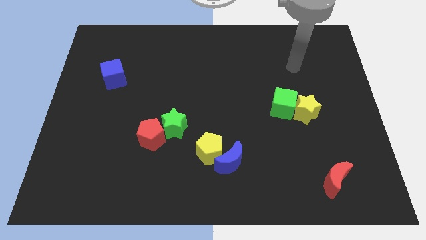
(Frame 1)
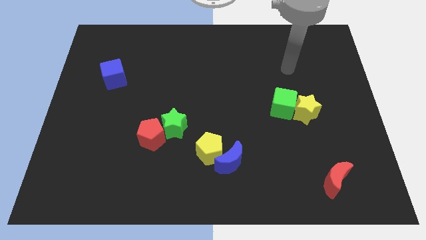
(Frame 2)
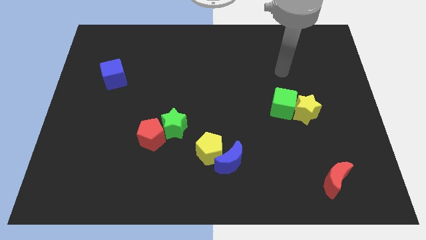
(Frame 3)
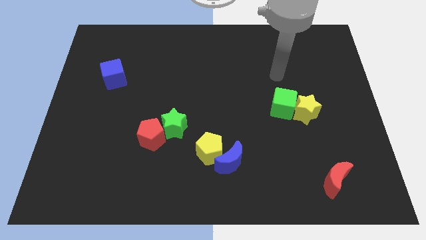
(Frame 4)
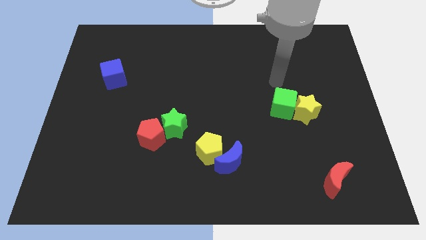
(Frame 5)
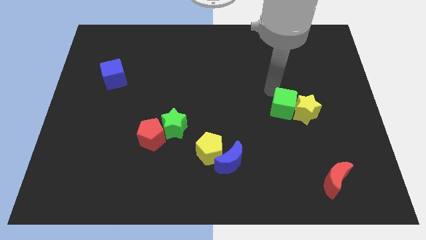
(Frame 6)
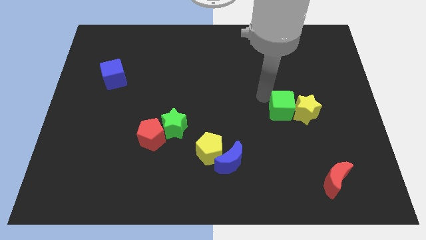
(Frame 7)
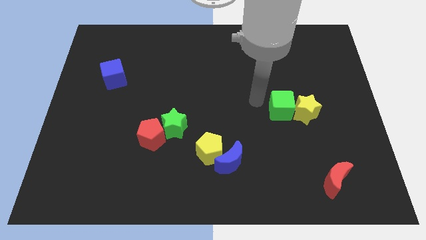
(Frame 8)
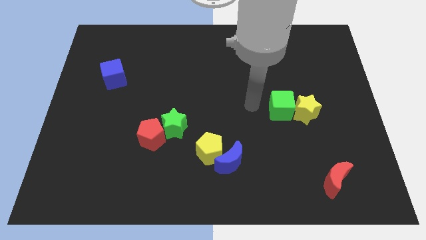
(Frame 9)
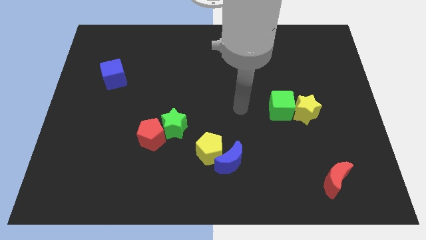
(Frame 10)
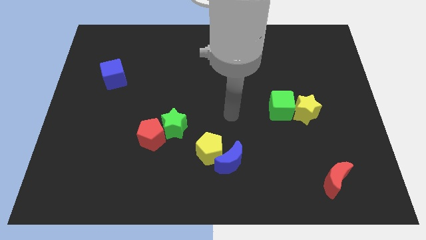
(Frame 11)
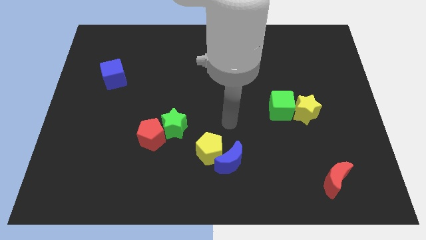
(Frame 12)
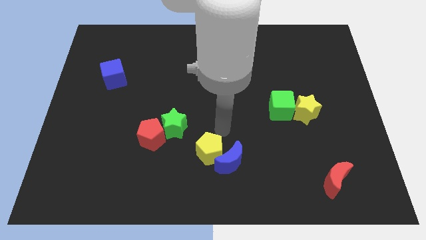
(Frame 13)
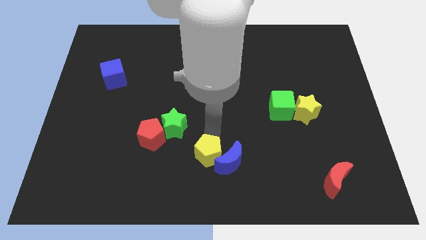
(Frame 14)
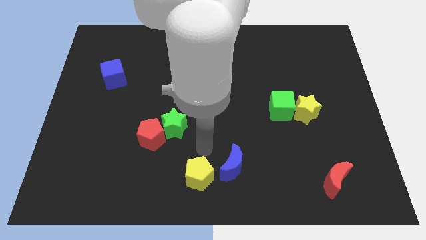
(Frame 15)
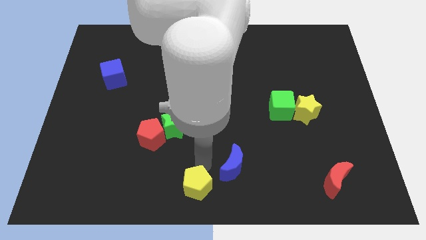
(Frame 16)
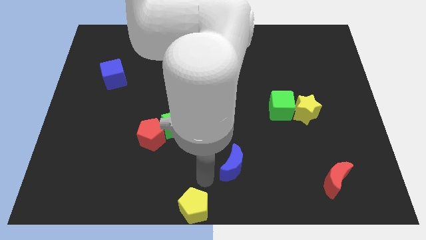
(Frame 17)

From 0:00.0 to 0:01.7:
separate the blue moon from the yellow pentagon

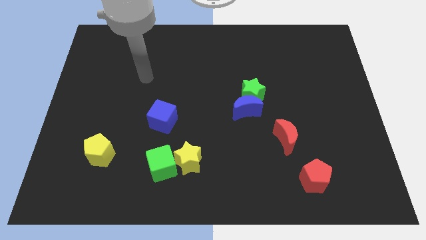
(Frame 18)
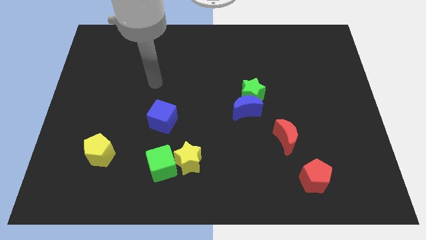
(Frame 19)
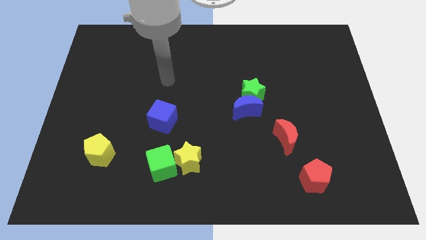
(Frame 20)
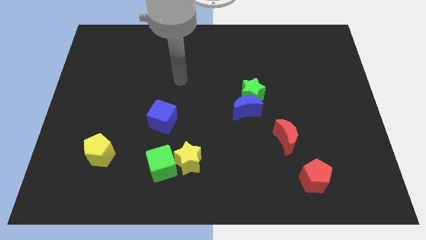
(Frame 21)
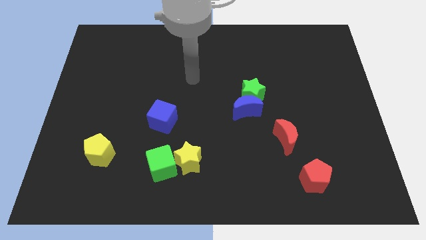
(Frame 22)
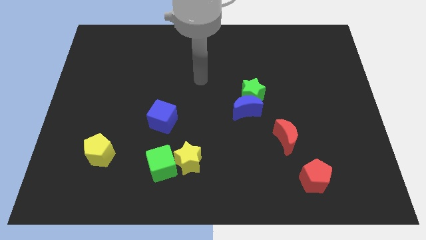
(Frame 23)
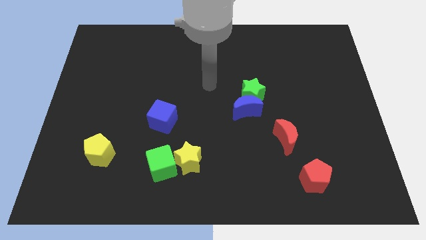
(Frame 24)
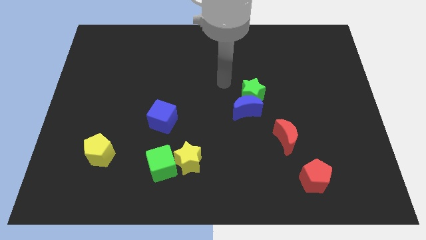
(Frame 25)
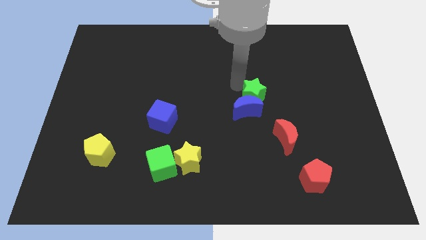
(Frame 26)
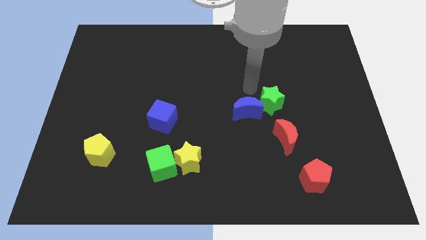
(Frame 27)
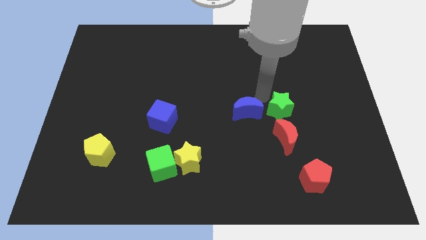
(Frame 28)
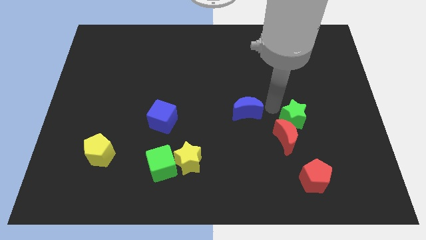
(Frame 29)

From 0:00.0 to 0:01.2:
move the blue moon away from the green star

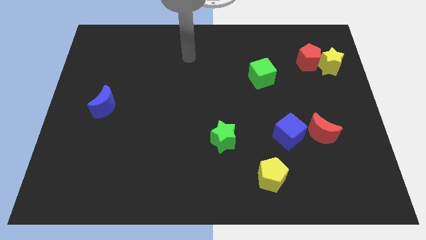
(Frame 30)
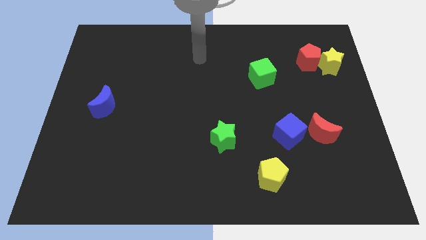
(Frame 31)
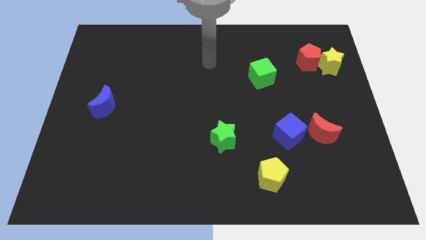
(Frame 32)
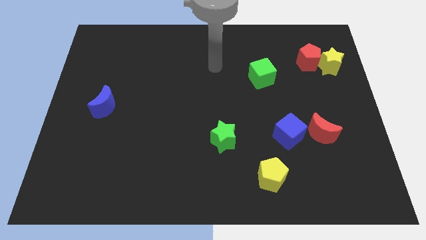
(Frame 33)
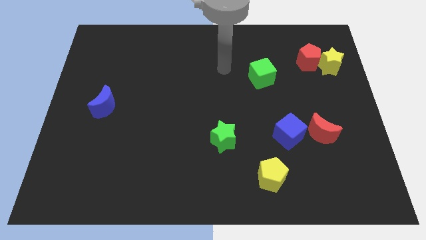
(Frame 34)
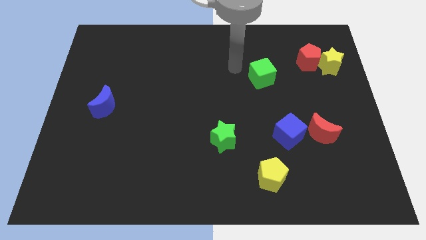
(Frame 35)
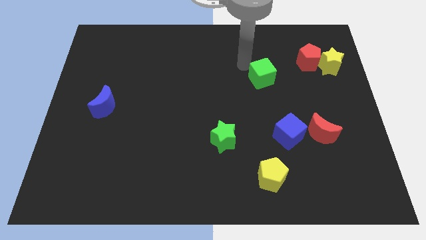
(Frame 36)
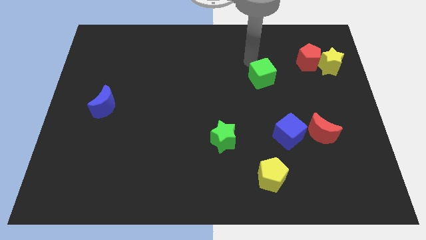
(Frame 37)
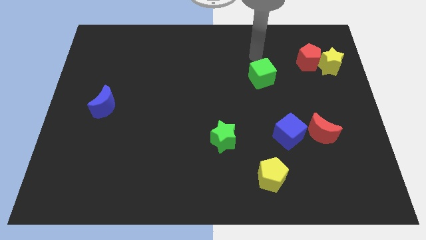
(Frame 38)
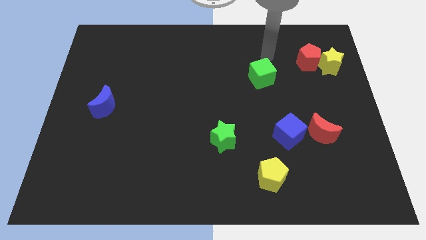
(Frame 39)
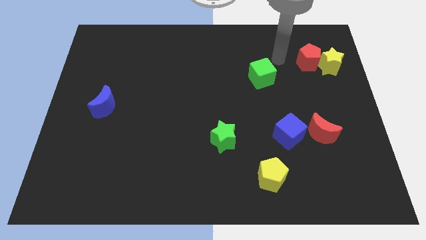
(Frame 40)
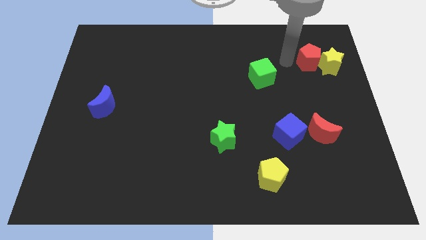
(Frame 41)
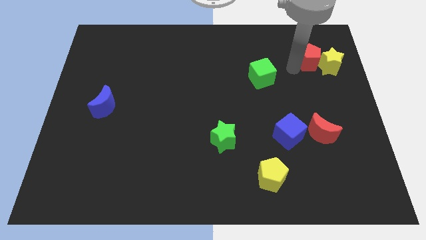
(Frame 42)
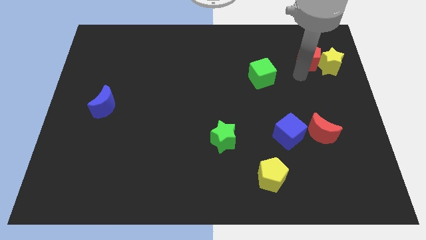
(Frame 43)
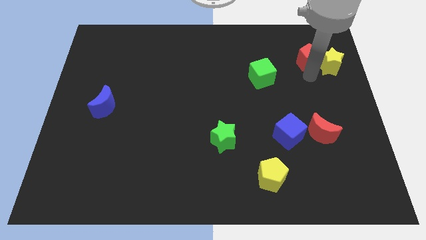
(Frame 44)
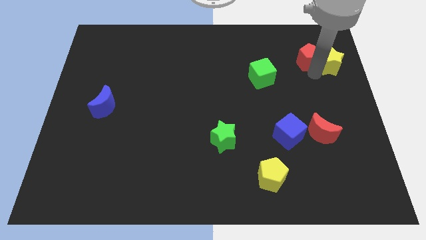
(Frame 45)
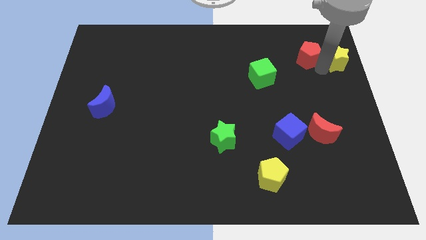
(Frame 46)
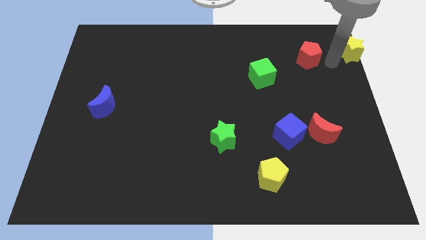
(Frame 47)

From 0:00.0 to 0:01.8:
move the red pentagon away from the yellow star

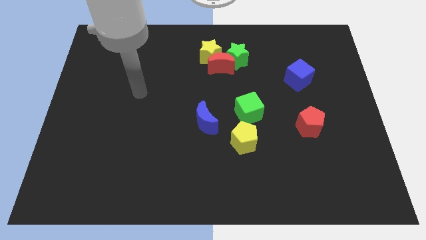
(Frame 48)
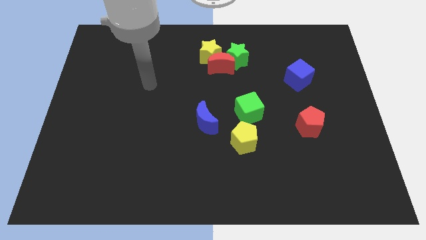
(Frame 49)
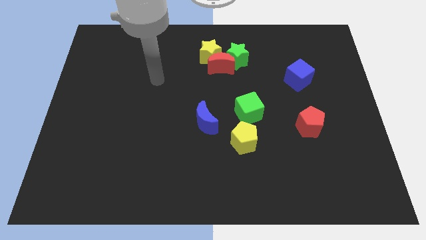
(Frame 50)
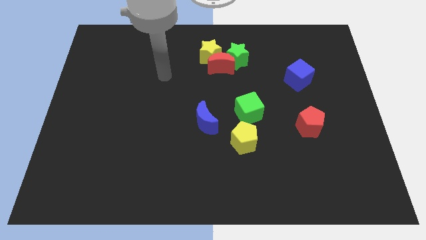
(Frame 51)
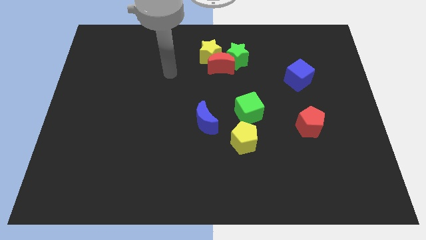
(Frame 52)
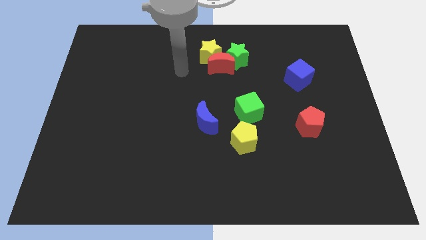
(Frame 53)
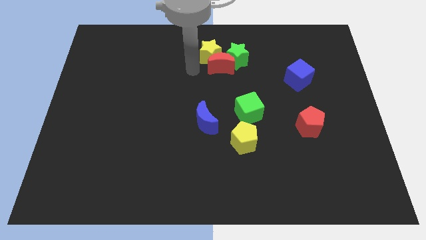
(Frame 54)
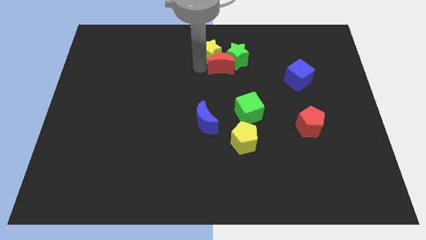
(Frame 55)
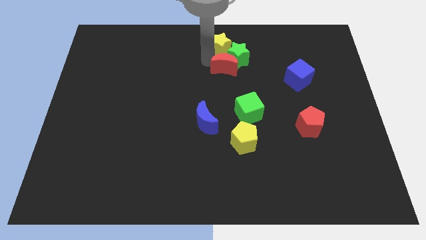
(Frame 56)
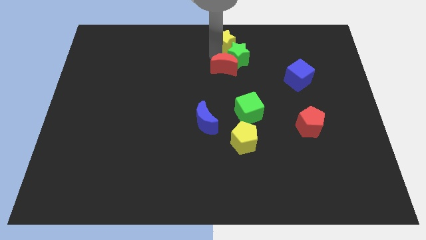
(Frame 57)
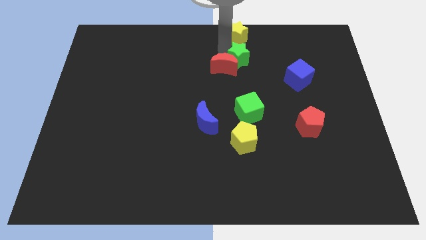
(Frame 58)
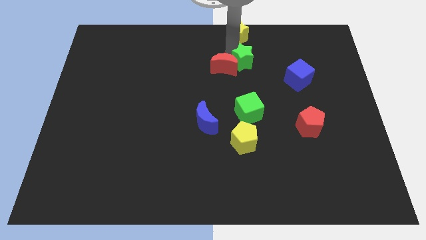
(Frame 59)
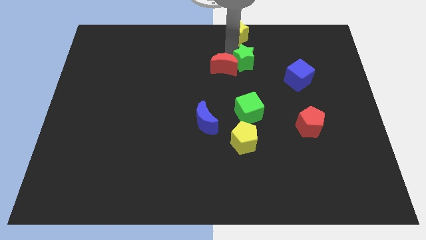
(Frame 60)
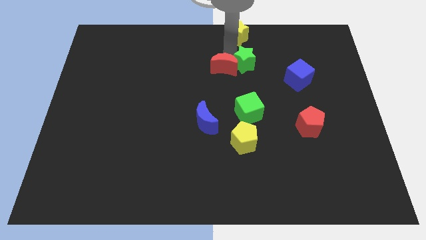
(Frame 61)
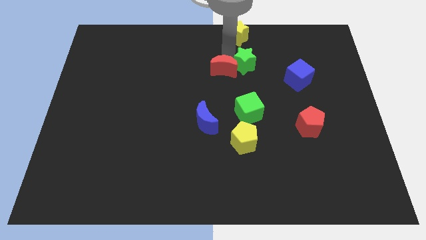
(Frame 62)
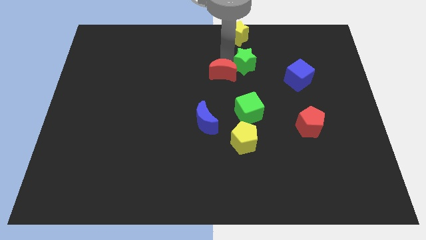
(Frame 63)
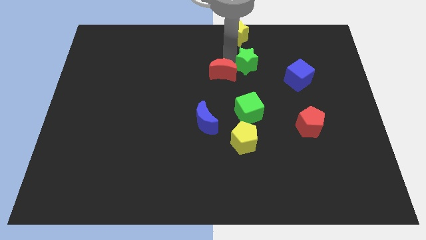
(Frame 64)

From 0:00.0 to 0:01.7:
separate the red moon from the yellow star and green star

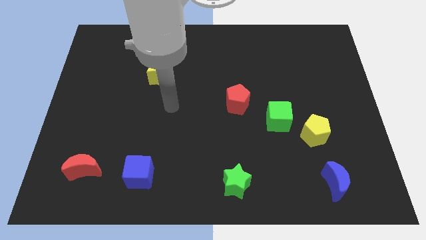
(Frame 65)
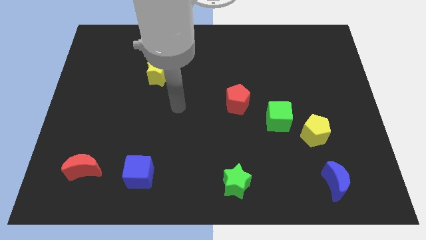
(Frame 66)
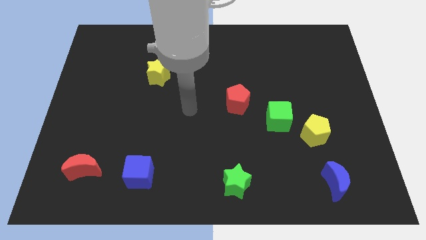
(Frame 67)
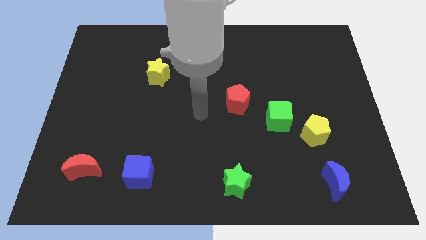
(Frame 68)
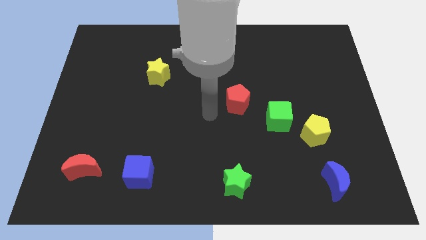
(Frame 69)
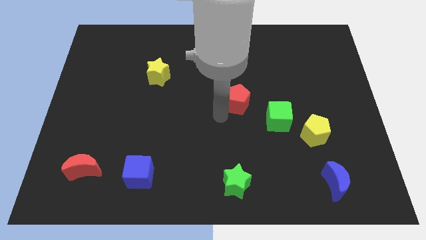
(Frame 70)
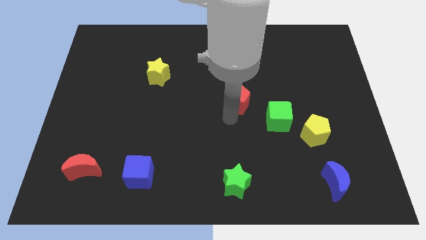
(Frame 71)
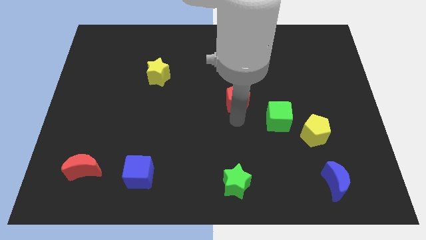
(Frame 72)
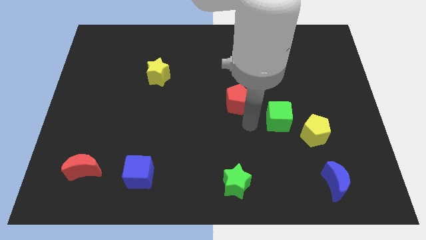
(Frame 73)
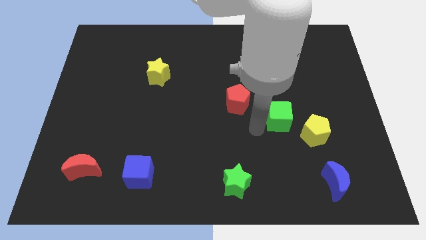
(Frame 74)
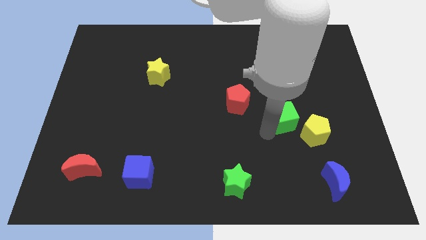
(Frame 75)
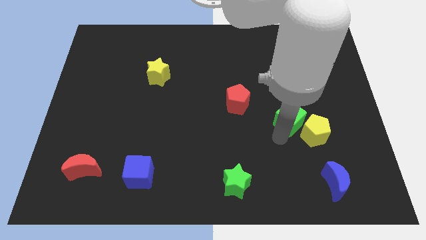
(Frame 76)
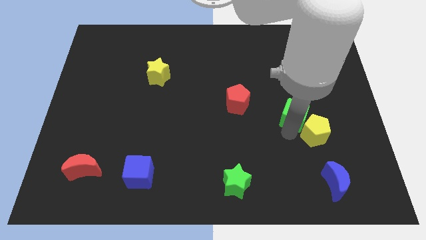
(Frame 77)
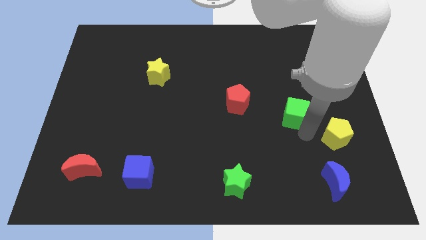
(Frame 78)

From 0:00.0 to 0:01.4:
move the green cube away from the yellow pentagon

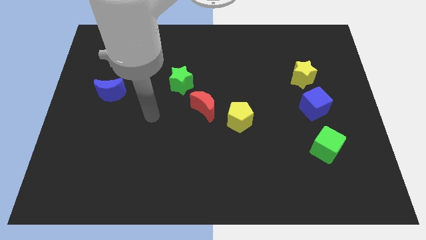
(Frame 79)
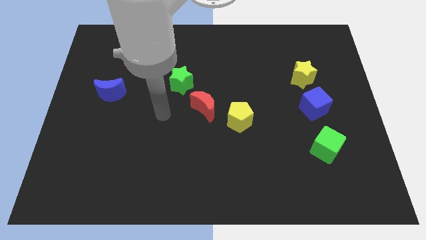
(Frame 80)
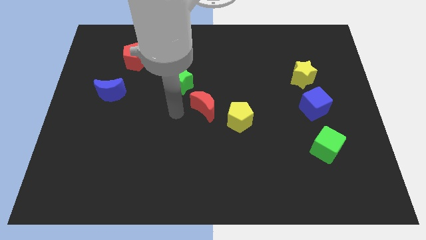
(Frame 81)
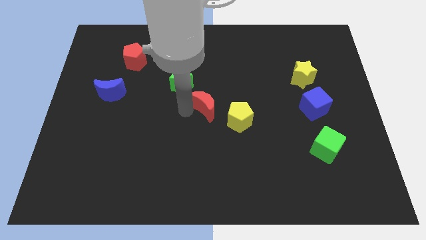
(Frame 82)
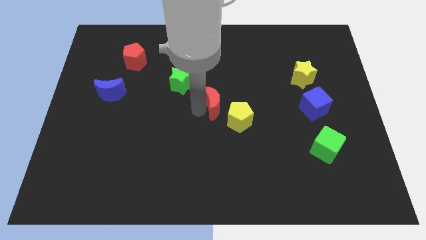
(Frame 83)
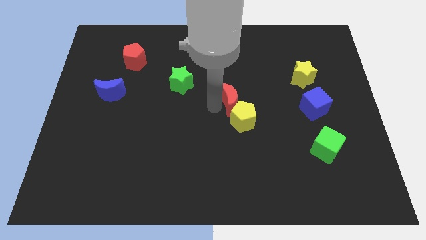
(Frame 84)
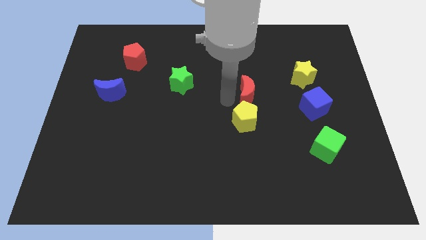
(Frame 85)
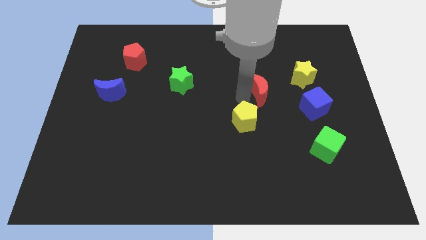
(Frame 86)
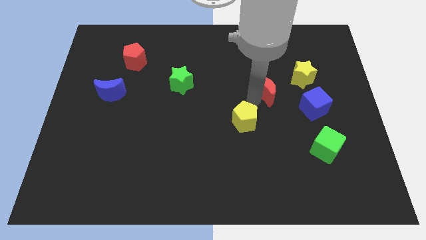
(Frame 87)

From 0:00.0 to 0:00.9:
move the yellow pentagon away from the red moon

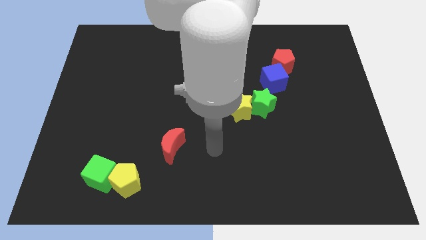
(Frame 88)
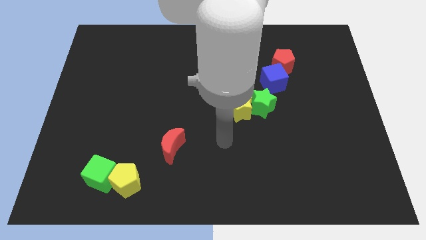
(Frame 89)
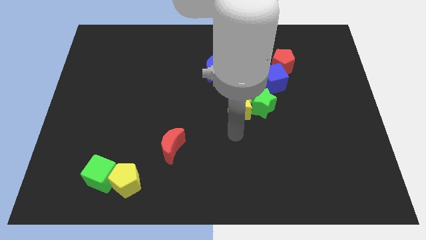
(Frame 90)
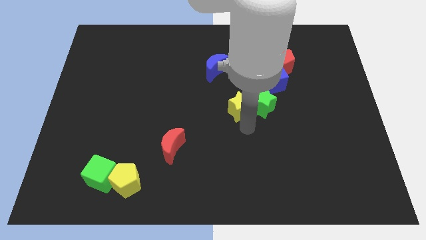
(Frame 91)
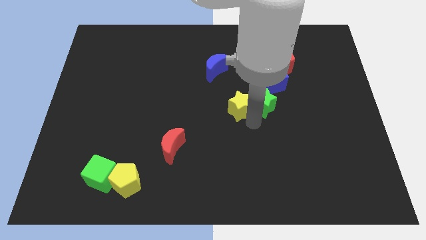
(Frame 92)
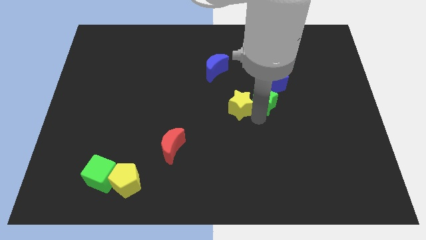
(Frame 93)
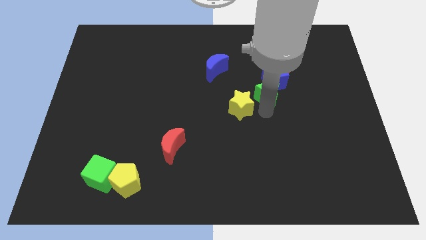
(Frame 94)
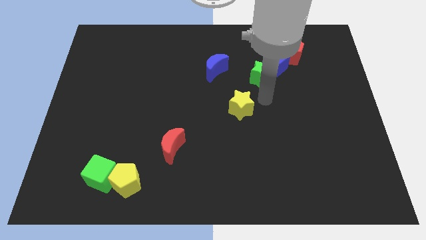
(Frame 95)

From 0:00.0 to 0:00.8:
separate the yellow star from the green star
